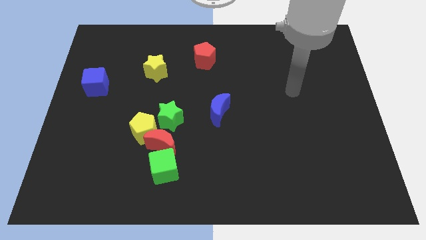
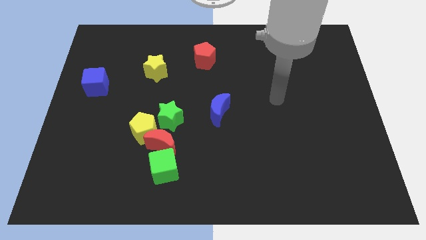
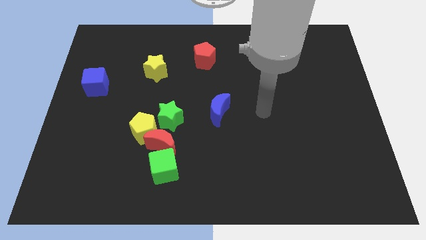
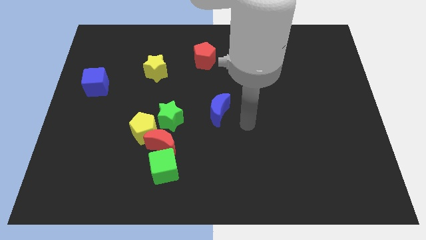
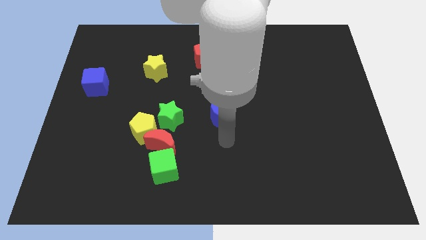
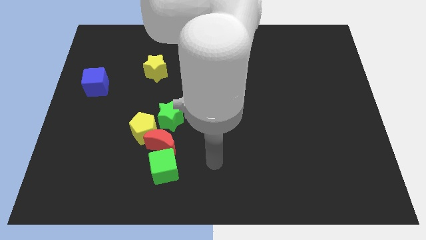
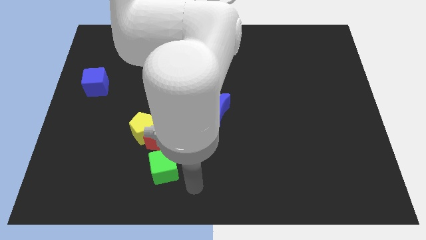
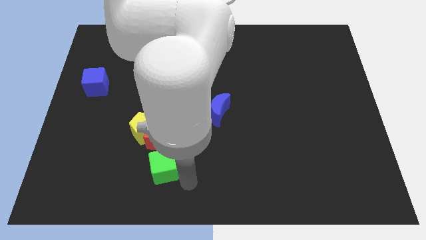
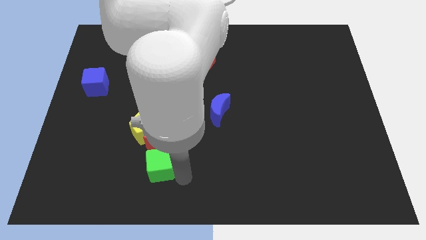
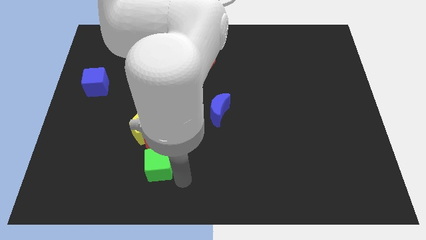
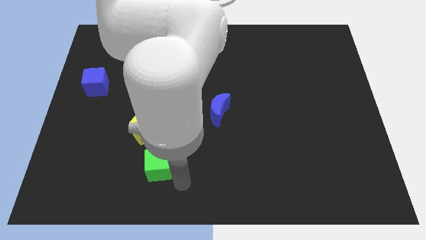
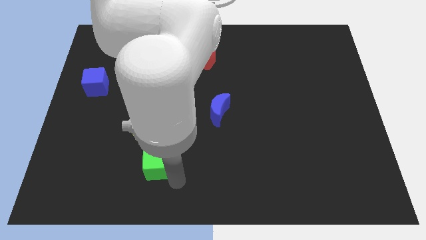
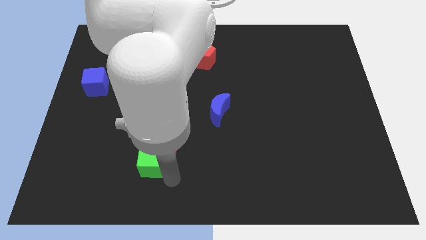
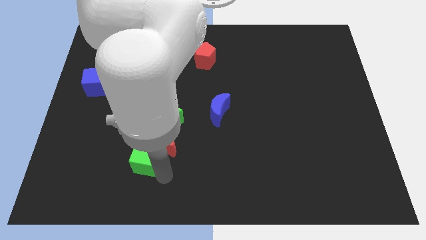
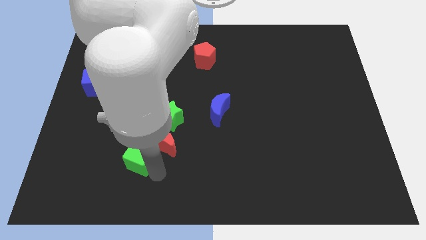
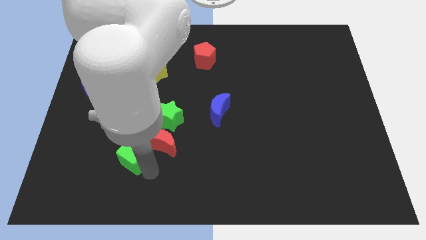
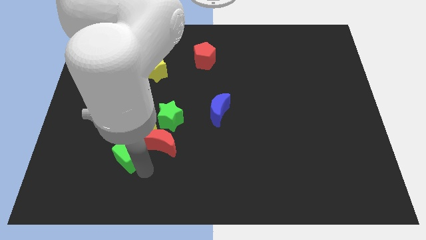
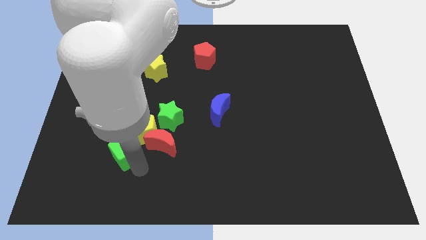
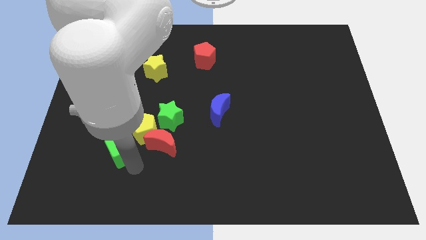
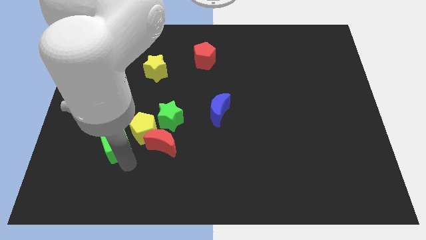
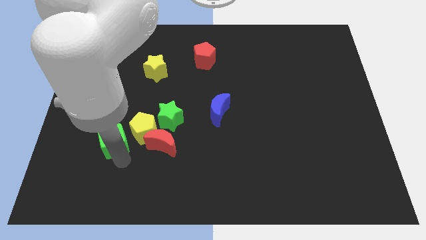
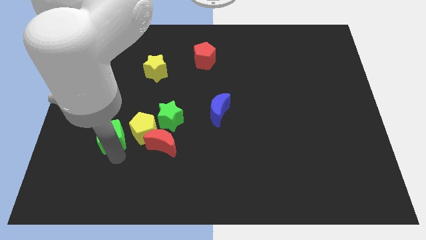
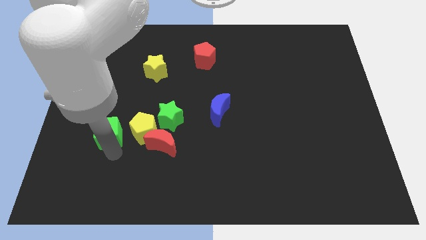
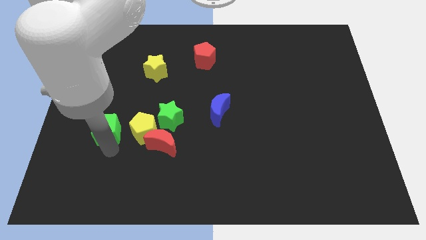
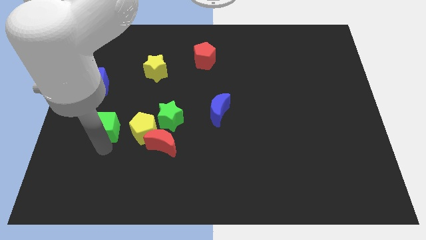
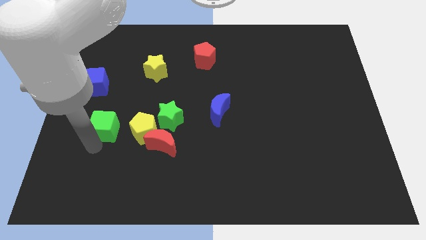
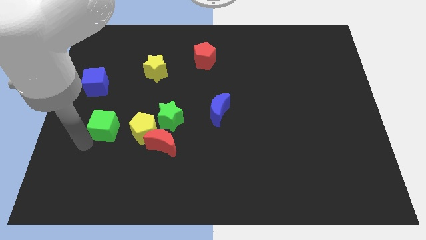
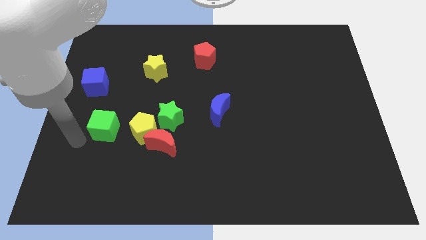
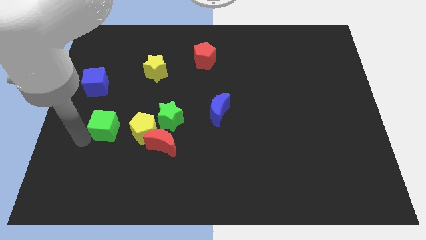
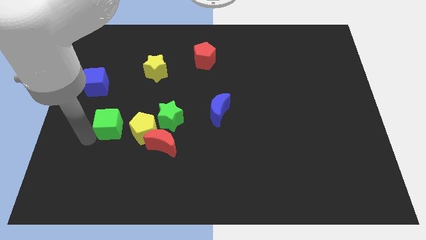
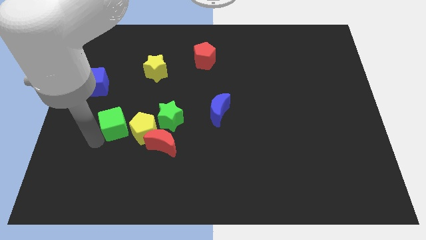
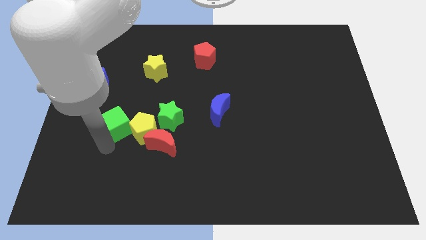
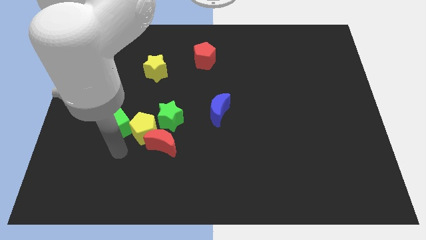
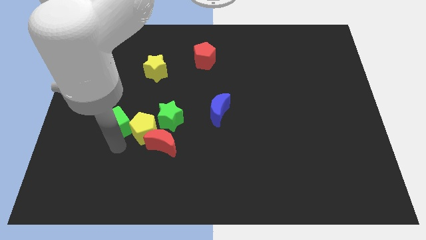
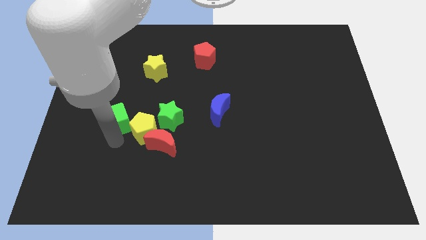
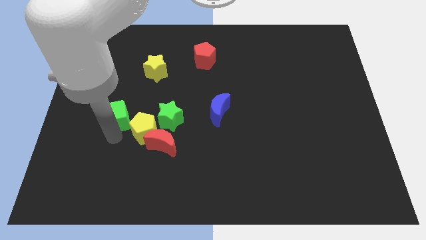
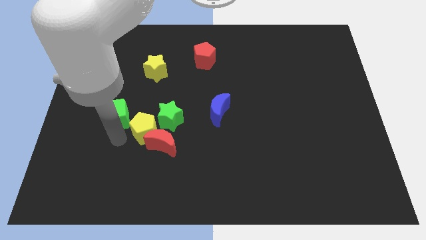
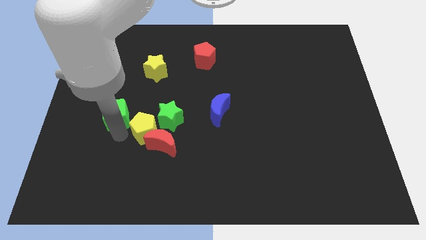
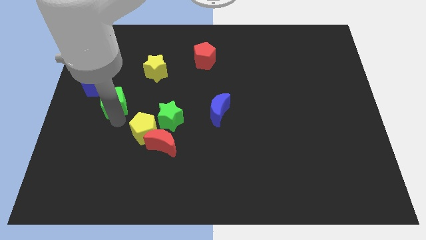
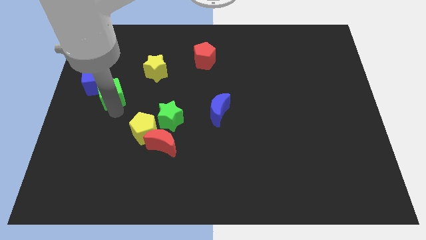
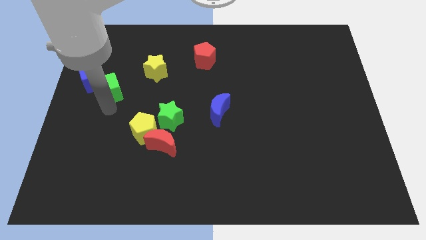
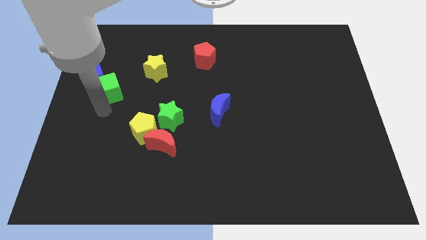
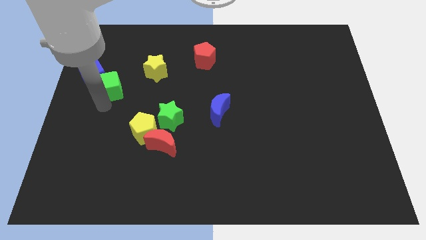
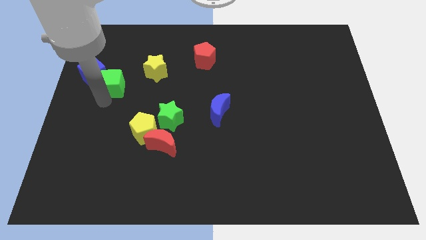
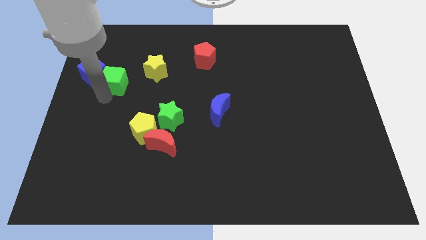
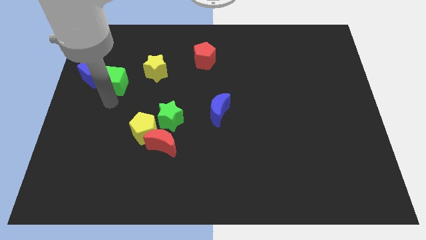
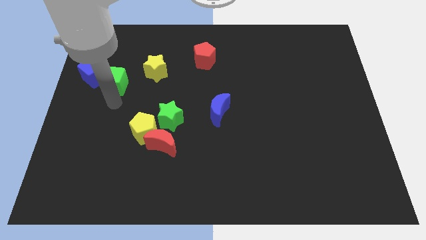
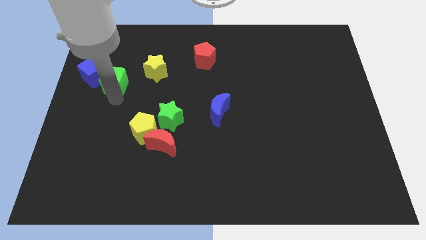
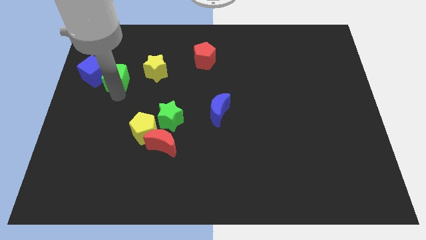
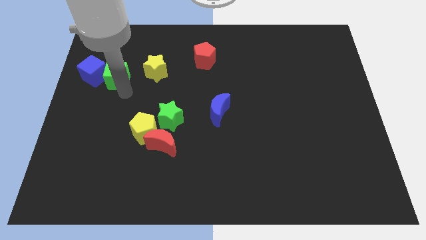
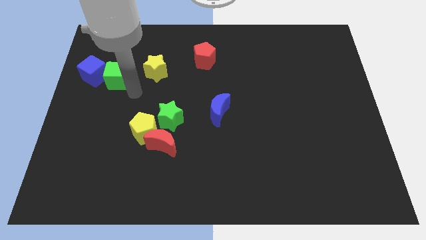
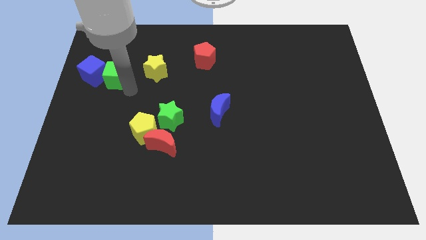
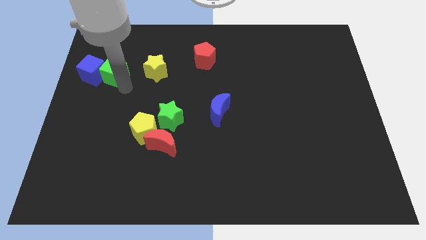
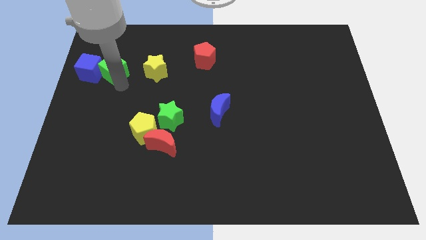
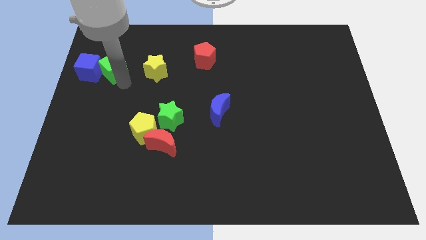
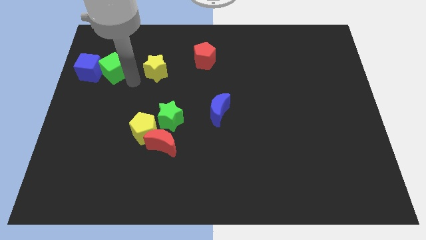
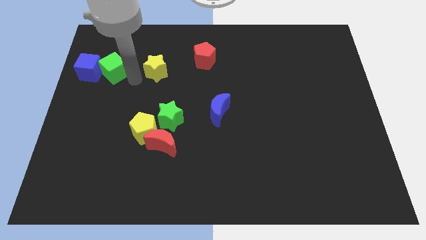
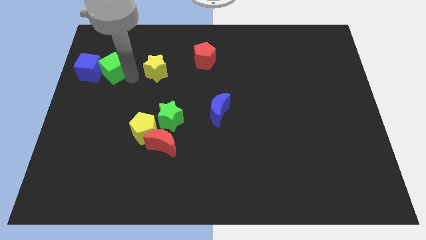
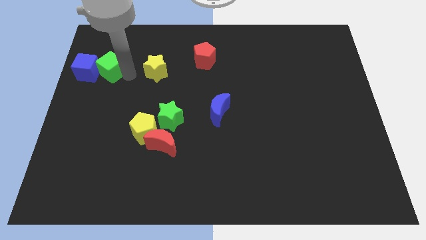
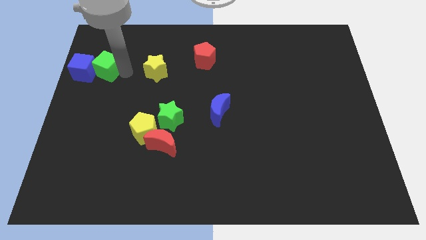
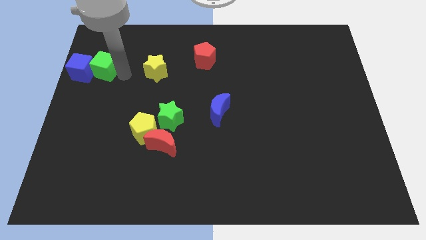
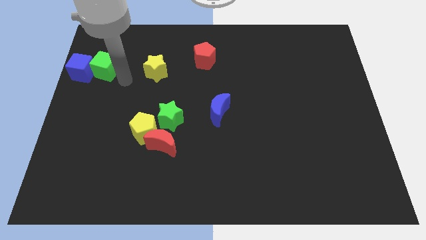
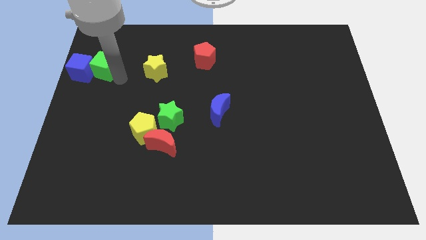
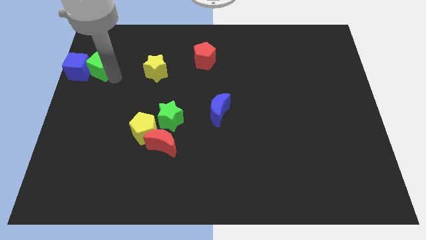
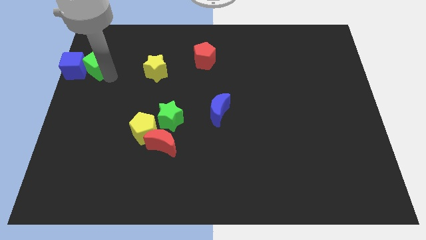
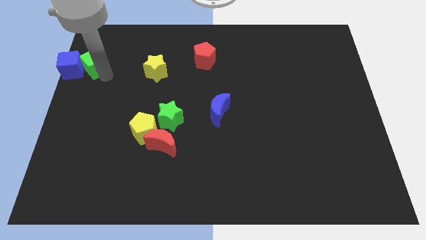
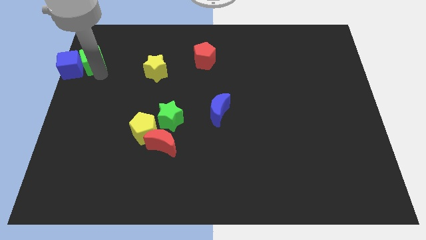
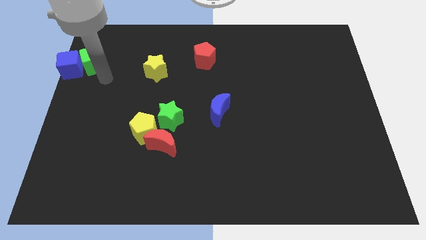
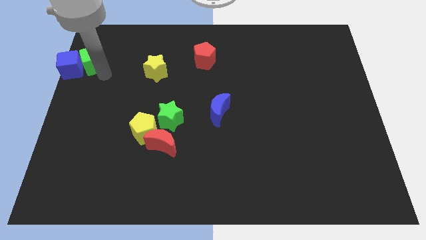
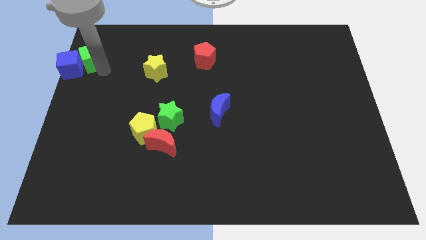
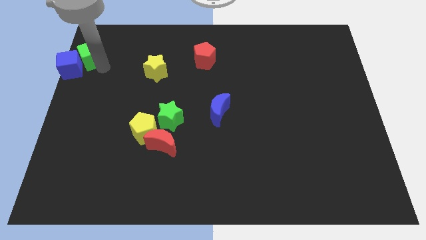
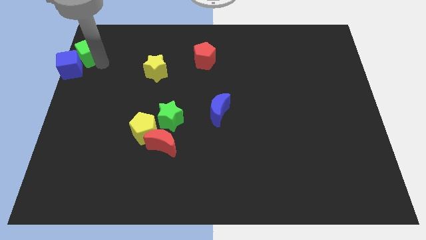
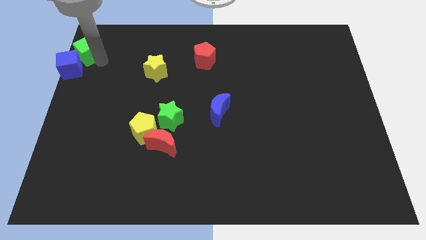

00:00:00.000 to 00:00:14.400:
put the green cube to the top left of the board
